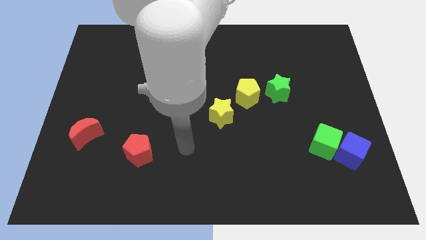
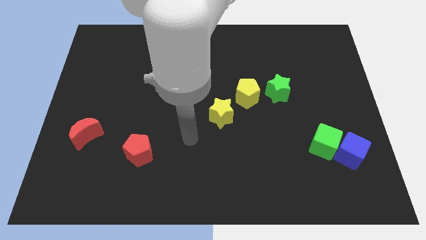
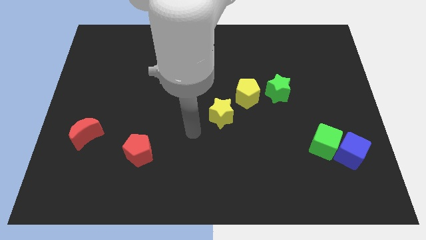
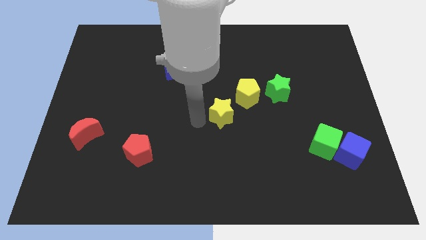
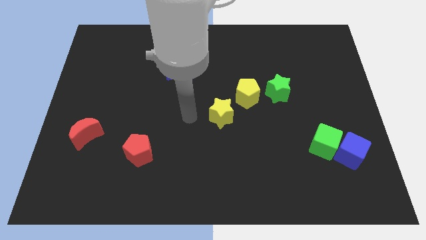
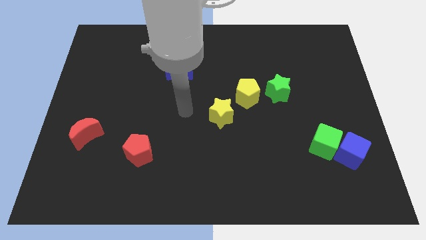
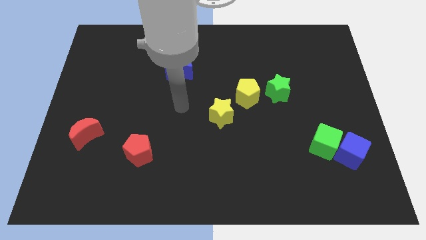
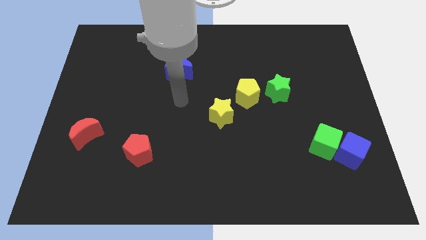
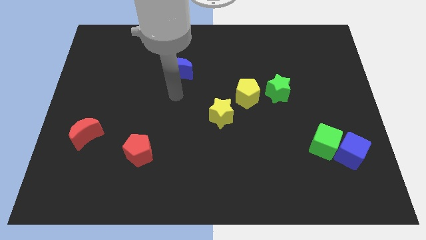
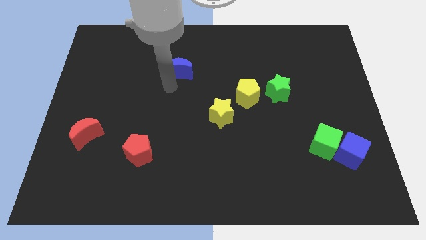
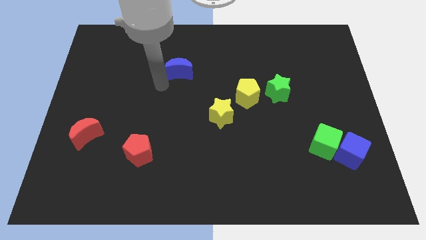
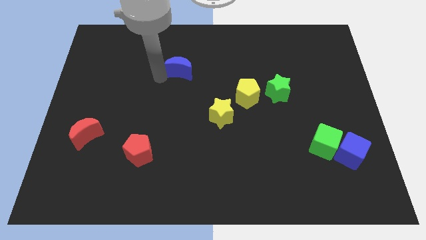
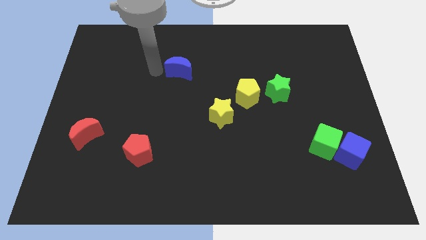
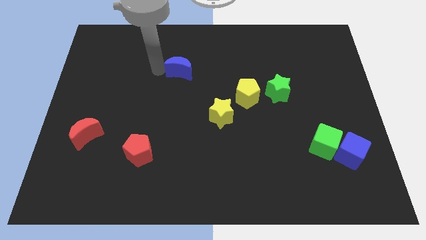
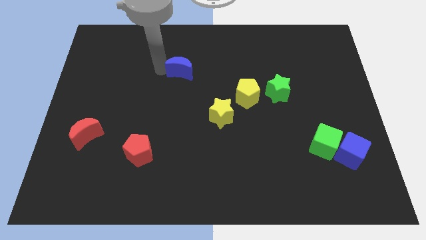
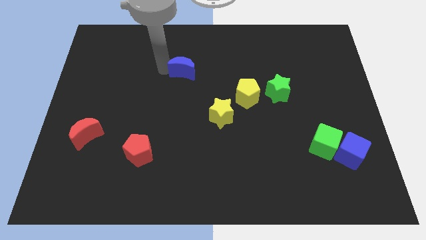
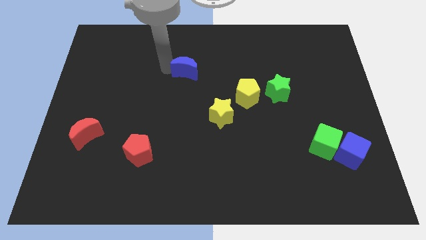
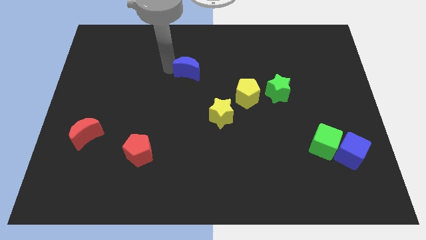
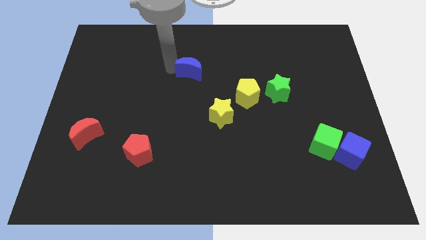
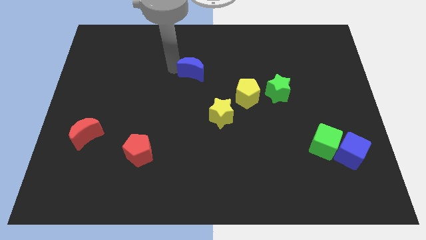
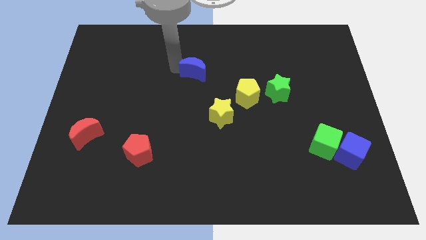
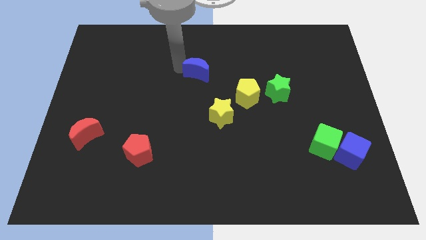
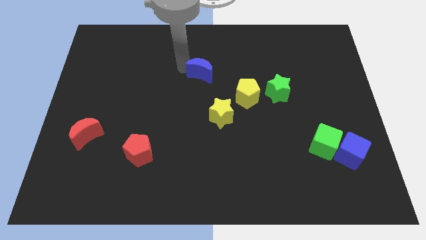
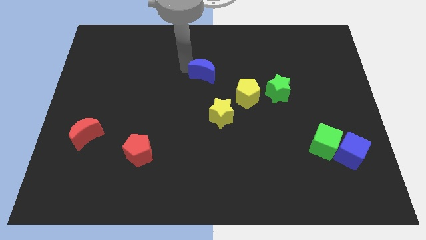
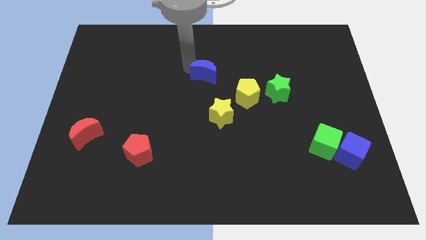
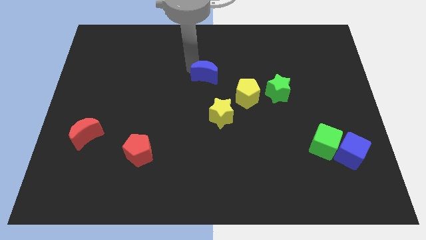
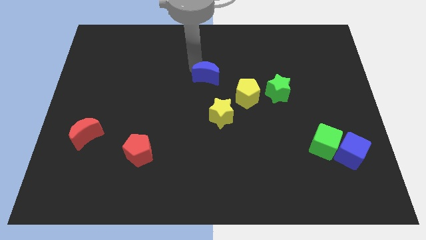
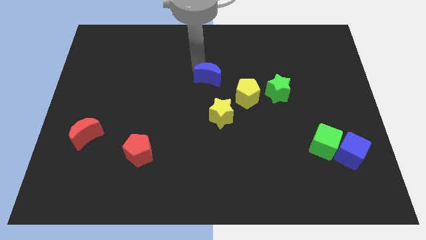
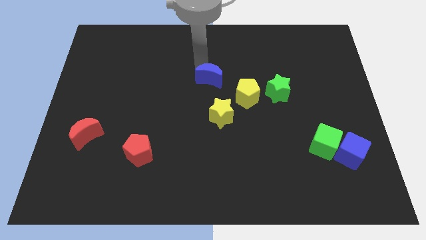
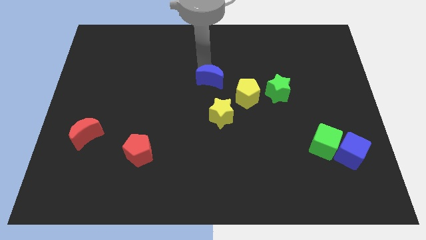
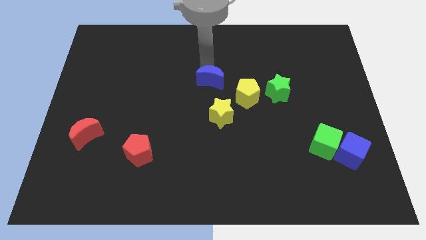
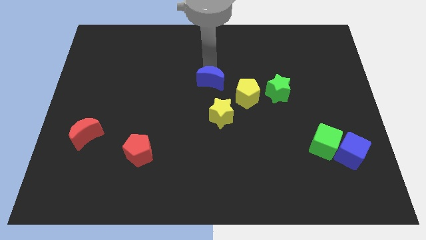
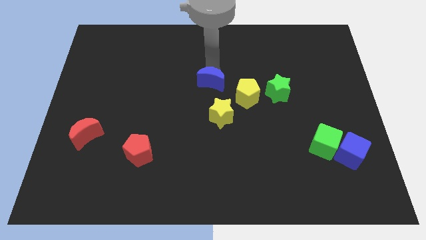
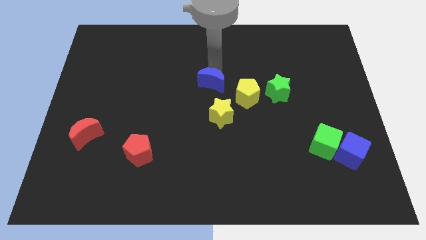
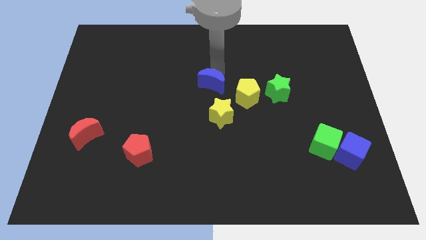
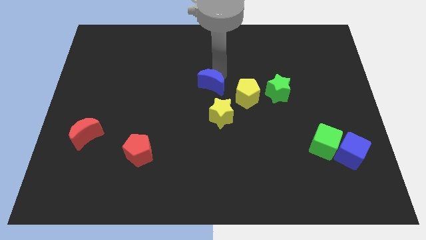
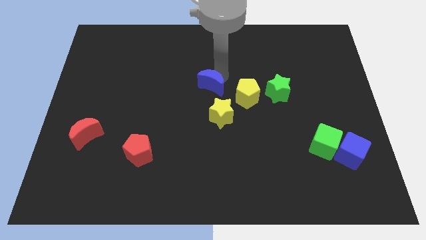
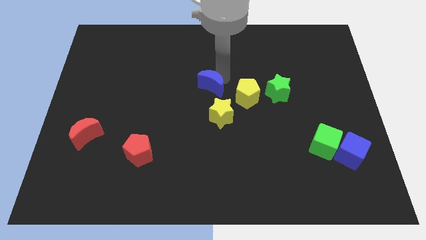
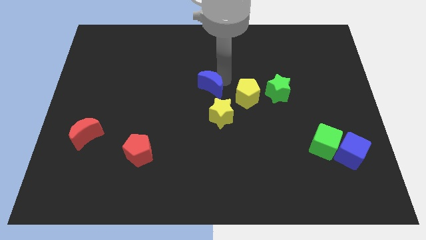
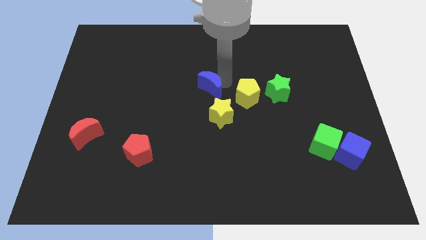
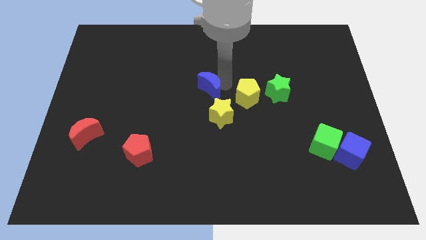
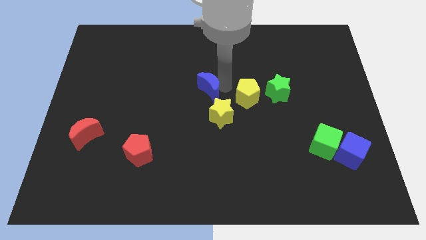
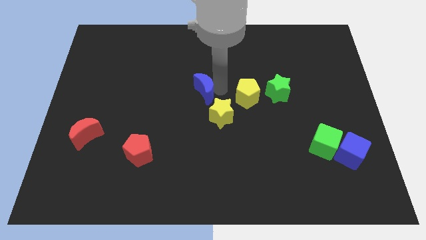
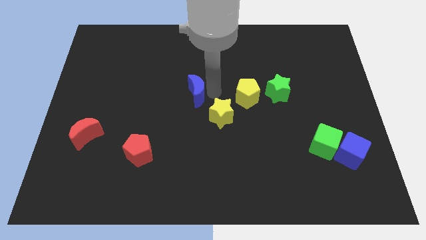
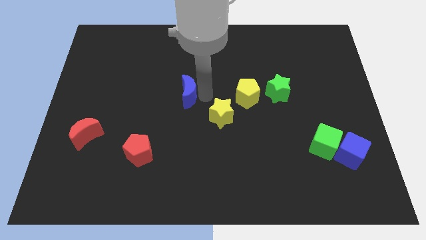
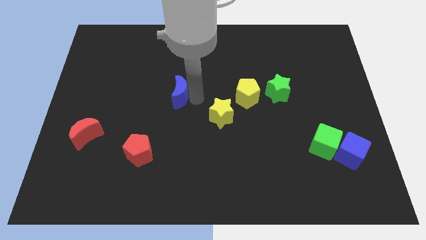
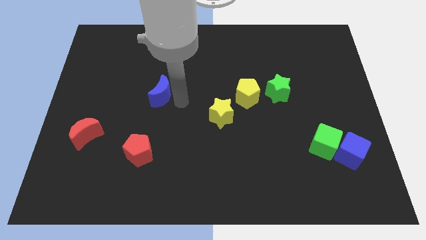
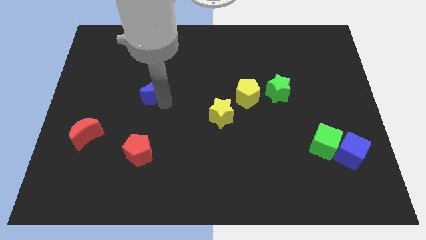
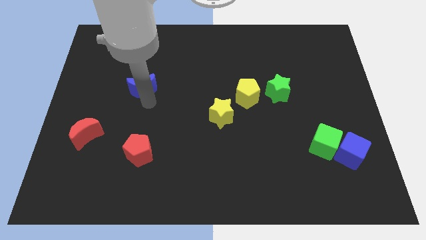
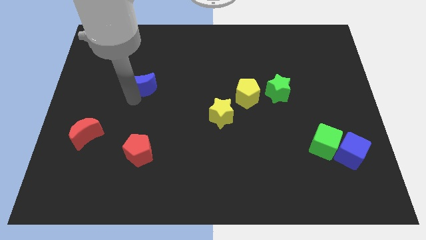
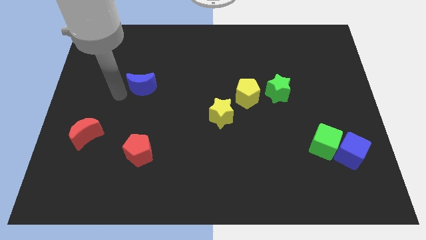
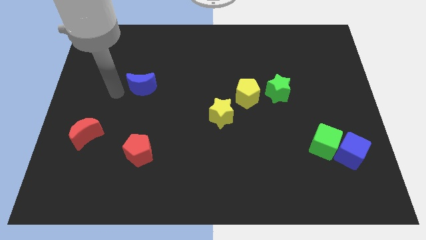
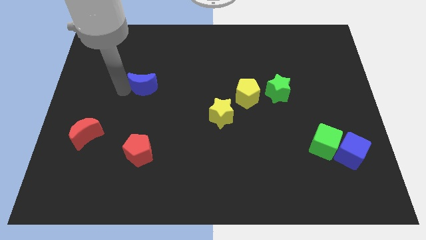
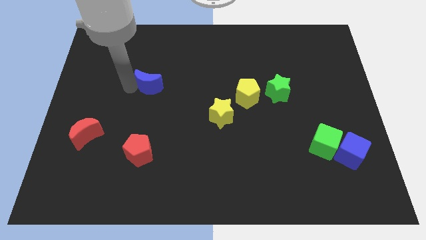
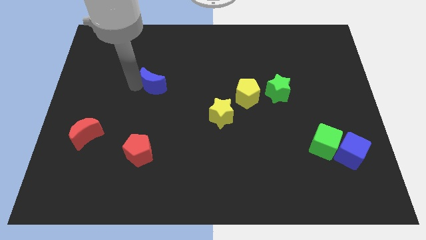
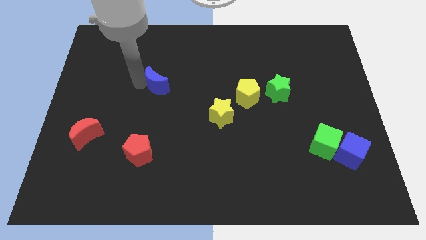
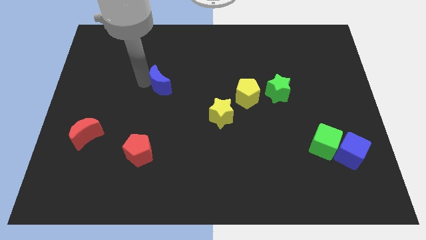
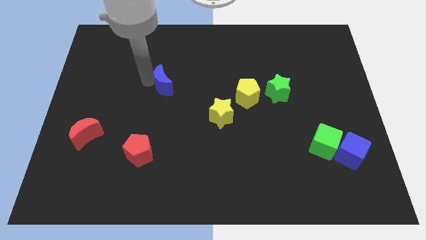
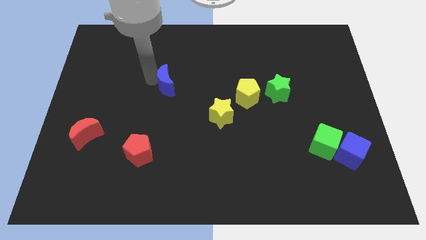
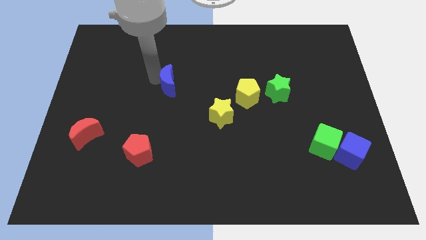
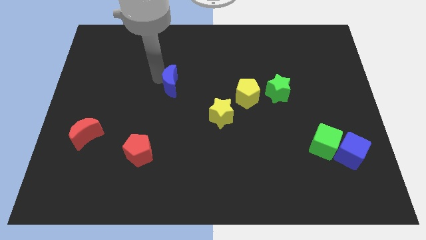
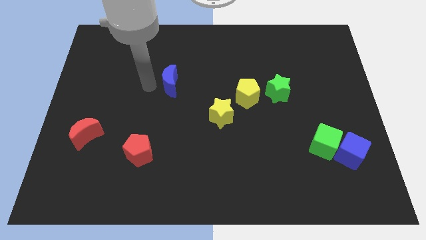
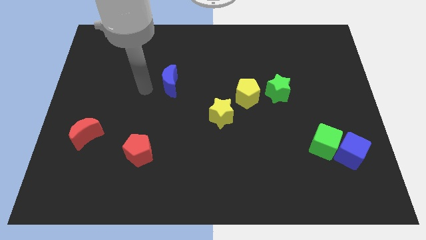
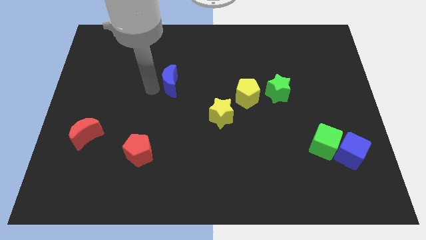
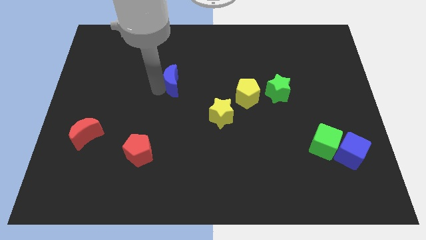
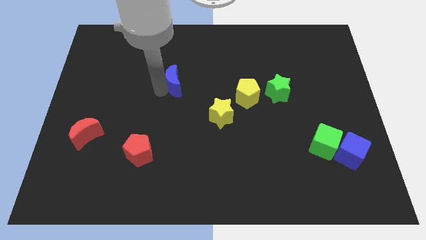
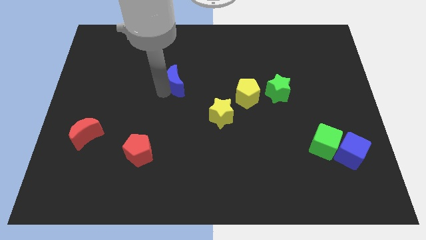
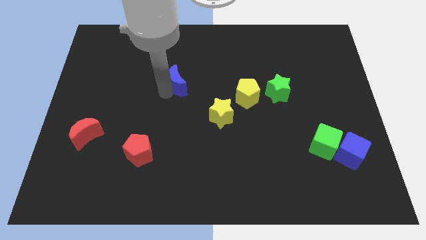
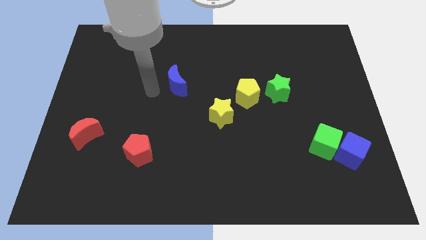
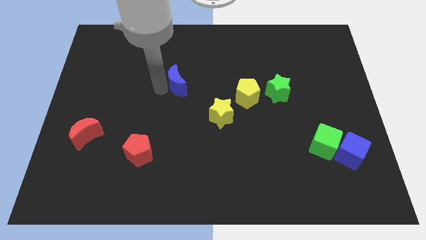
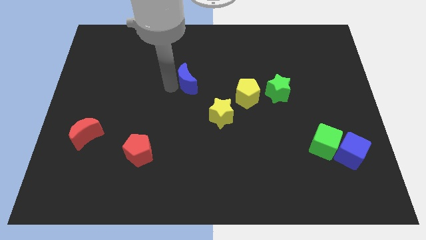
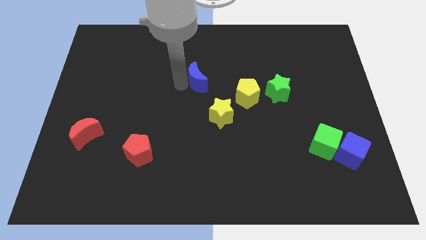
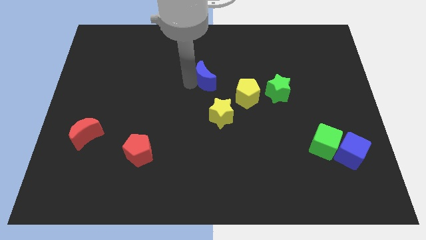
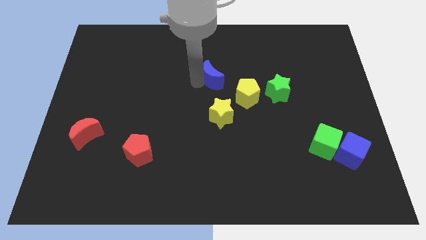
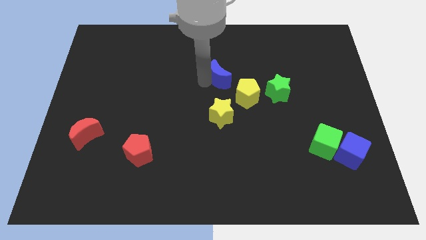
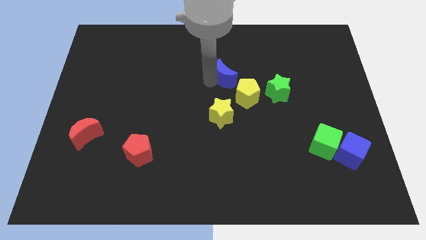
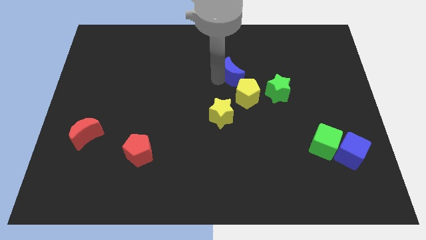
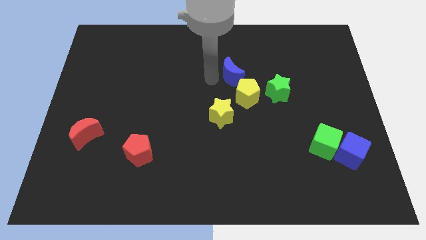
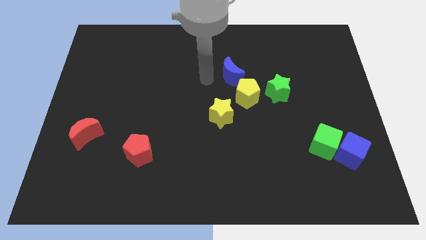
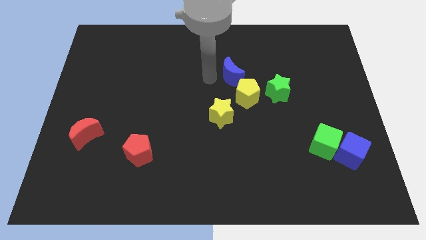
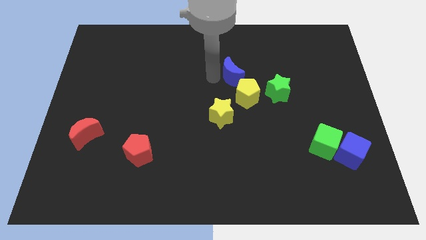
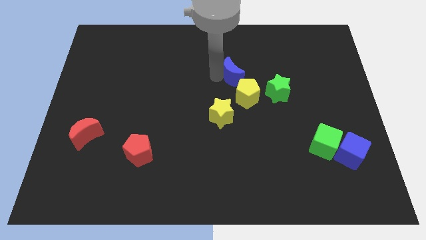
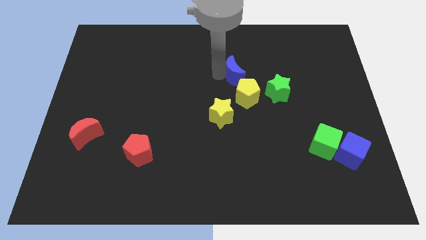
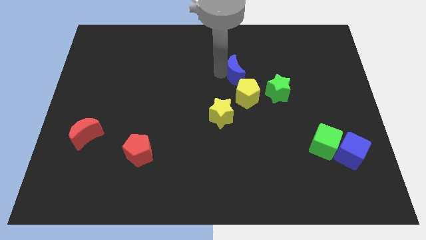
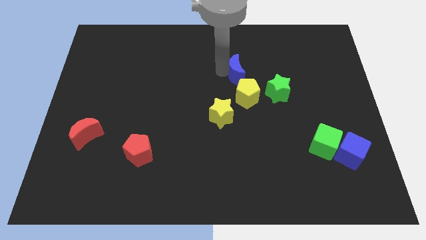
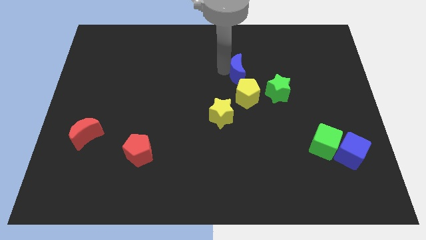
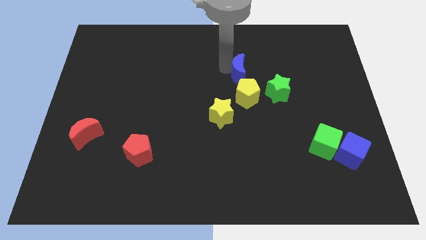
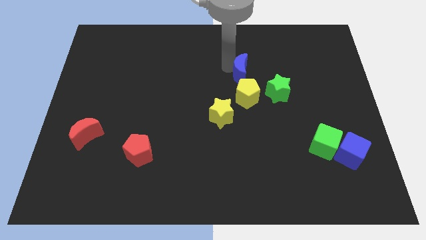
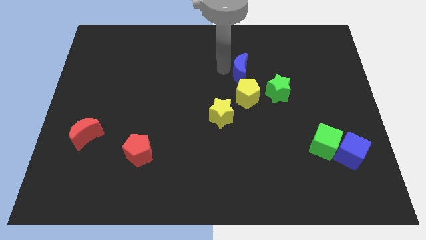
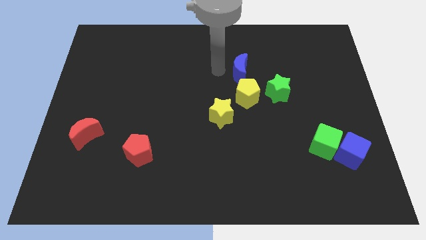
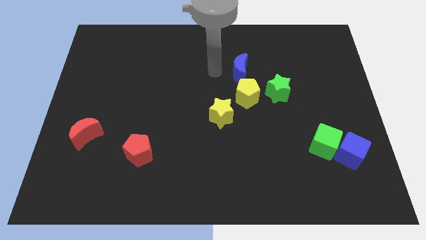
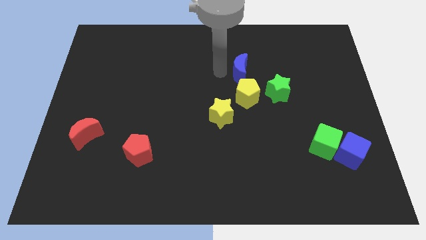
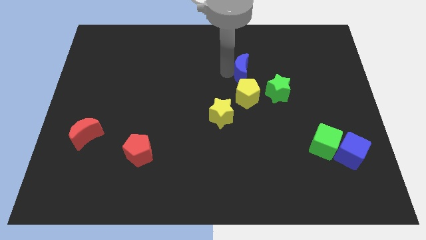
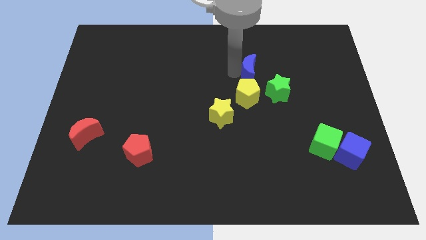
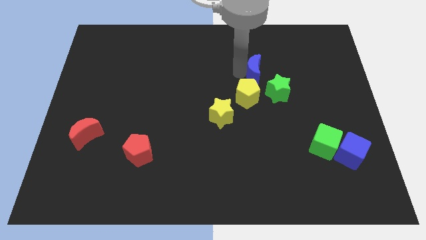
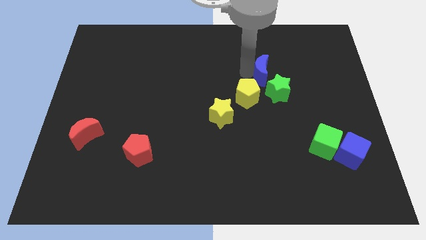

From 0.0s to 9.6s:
push the blue moon to the right
